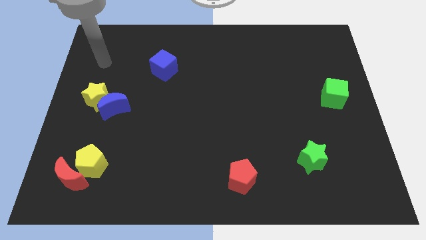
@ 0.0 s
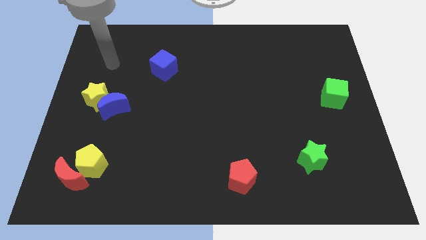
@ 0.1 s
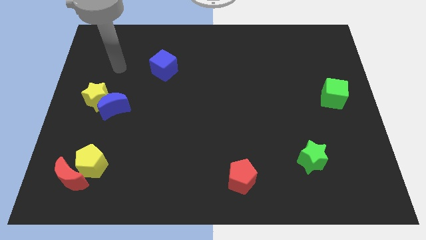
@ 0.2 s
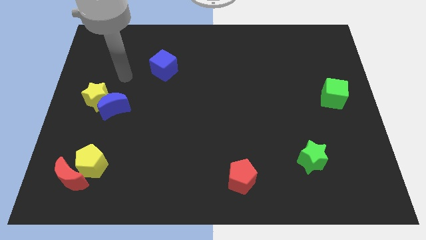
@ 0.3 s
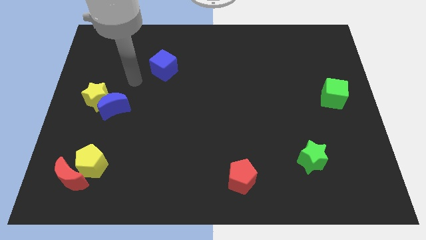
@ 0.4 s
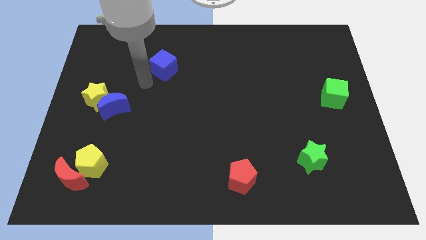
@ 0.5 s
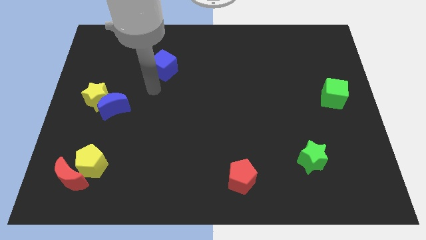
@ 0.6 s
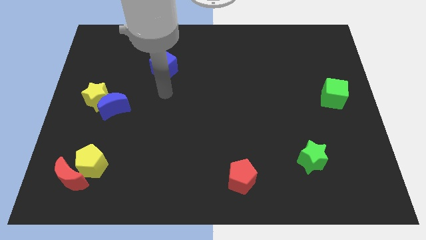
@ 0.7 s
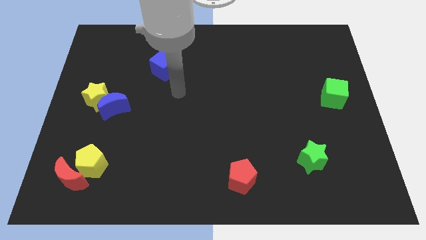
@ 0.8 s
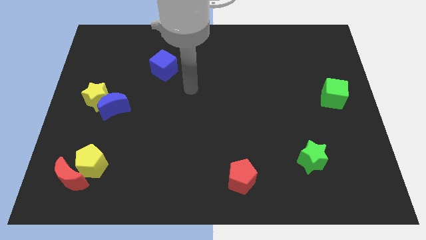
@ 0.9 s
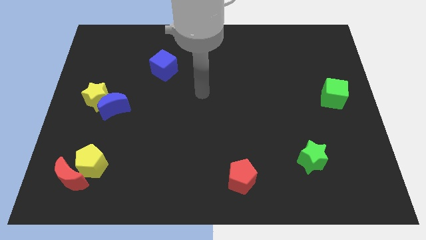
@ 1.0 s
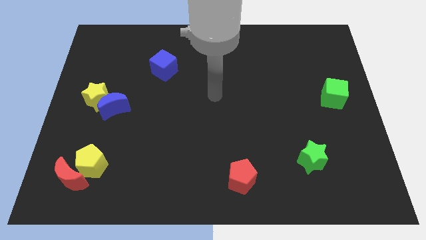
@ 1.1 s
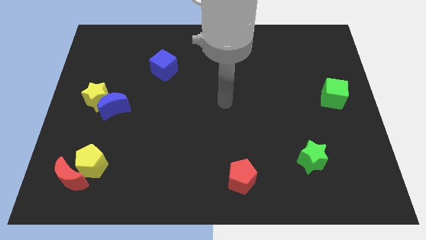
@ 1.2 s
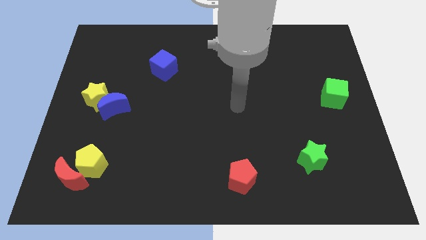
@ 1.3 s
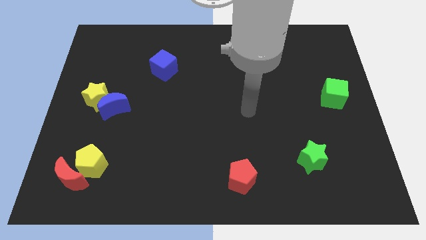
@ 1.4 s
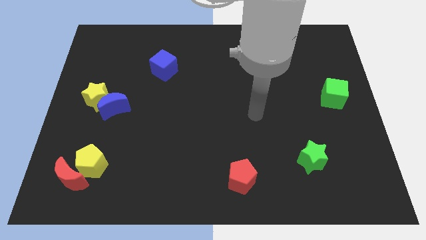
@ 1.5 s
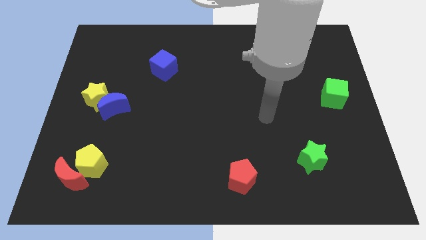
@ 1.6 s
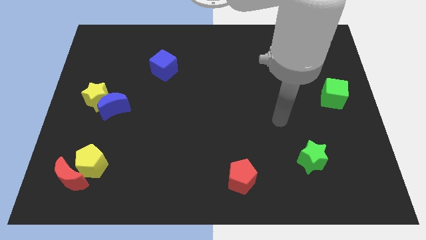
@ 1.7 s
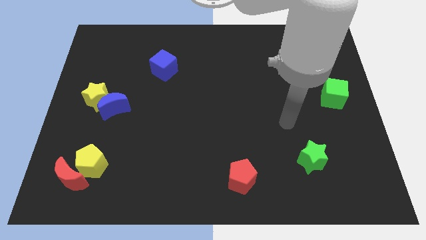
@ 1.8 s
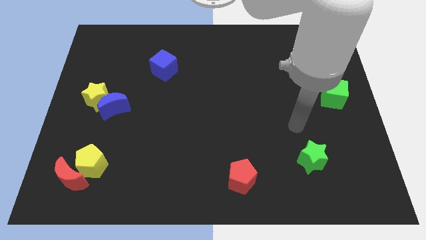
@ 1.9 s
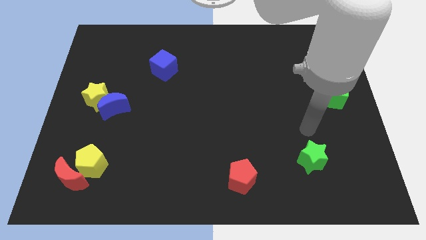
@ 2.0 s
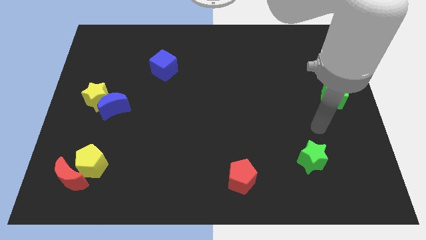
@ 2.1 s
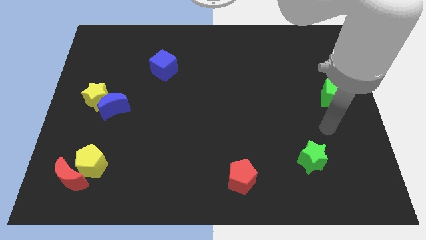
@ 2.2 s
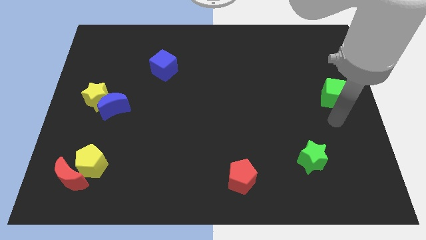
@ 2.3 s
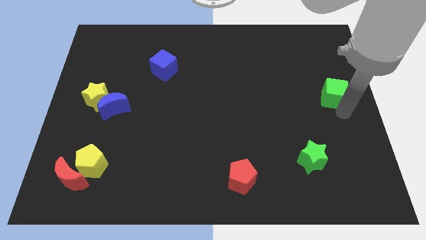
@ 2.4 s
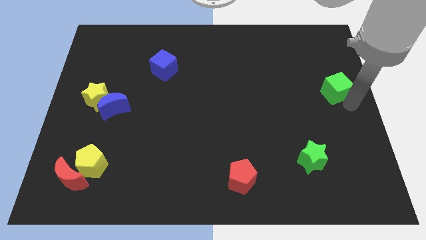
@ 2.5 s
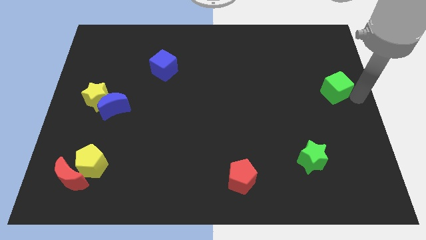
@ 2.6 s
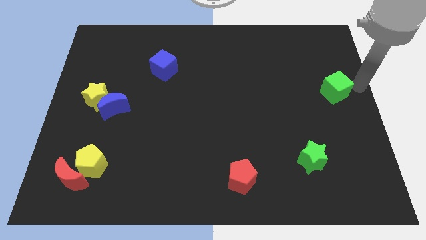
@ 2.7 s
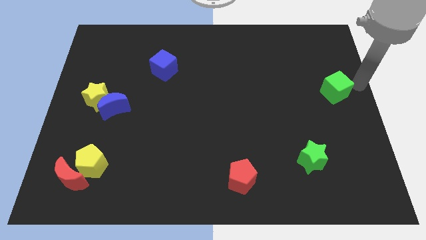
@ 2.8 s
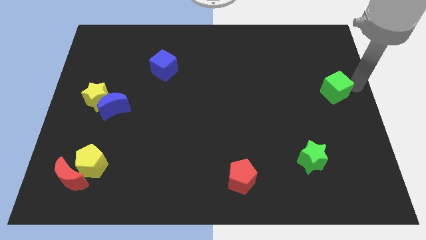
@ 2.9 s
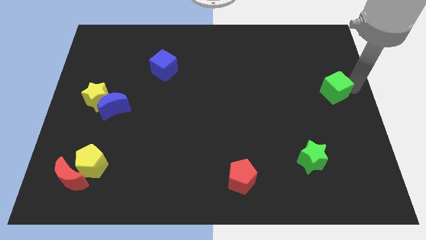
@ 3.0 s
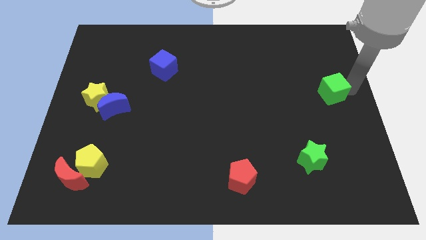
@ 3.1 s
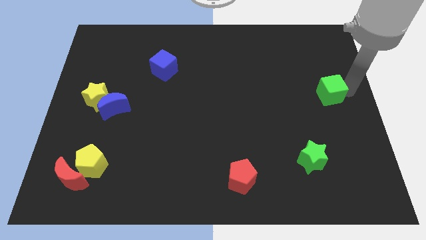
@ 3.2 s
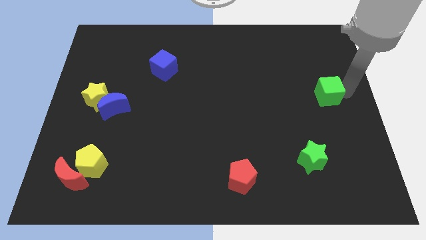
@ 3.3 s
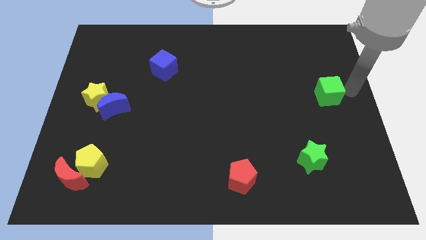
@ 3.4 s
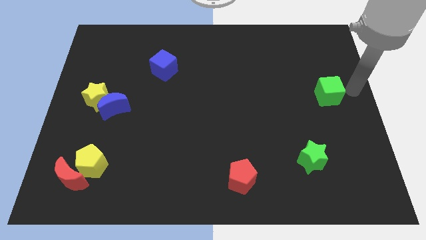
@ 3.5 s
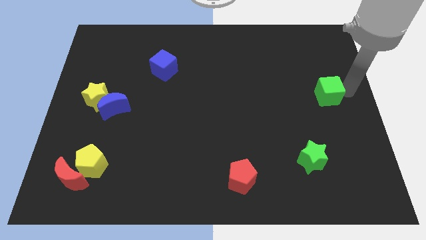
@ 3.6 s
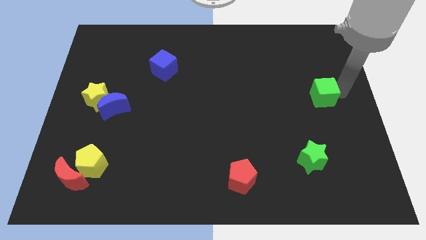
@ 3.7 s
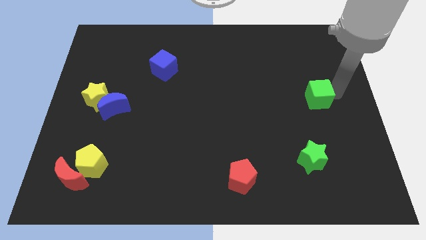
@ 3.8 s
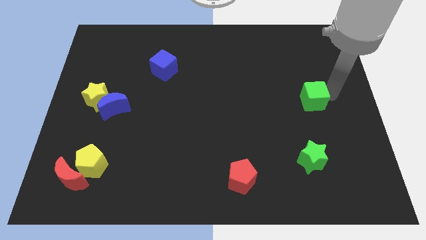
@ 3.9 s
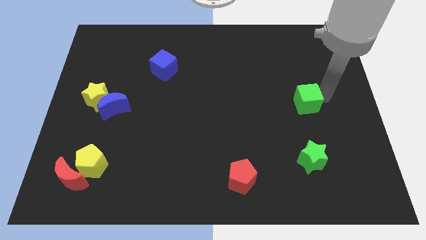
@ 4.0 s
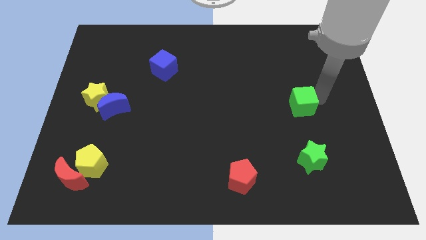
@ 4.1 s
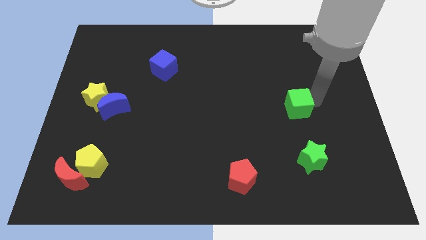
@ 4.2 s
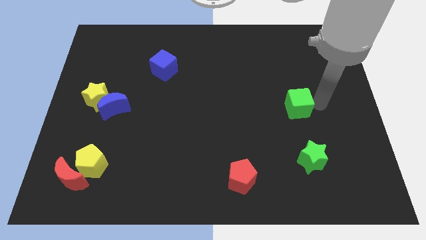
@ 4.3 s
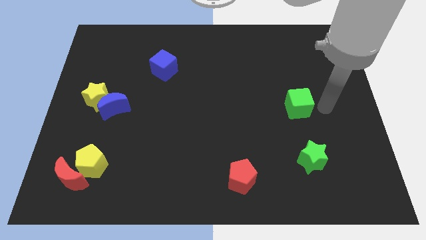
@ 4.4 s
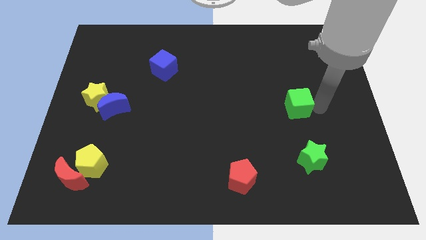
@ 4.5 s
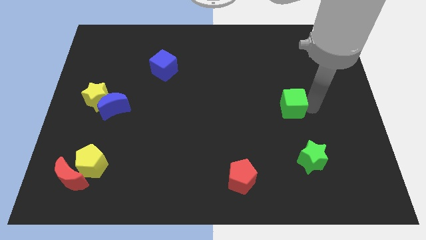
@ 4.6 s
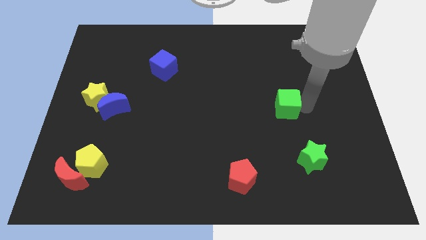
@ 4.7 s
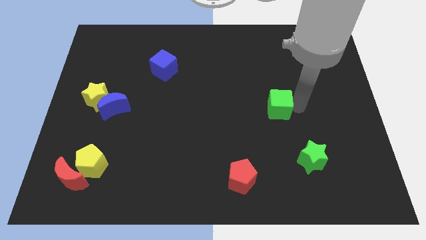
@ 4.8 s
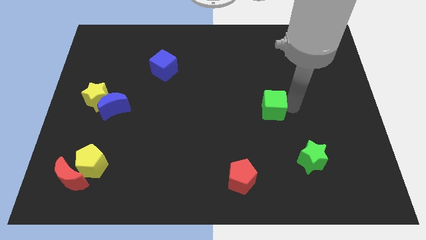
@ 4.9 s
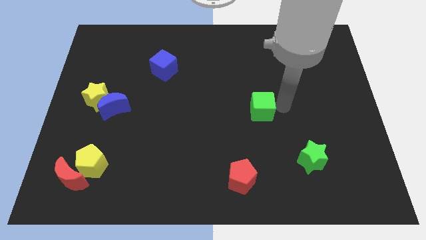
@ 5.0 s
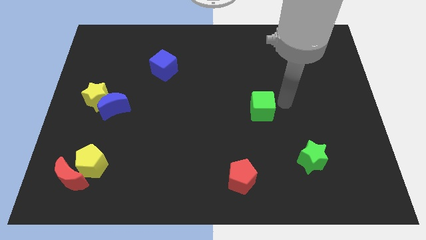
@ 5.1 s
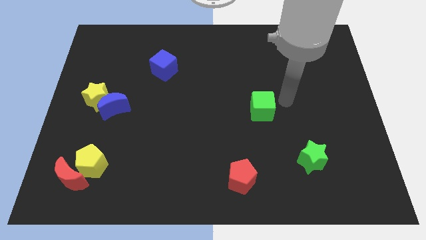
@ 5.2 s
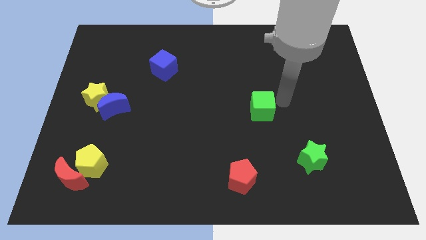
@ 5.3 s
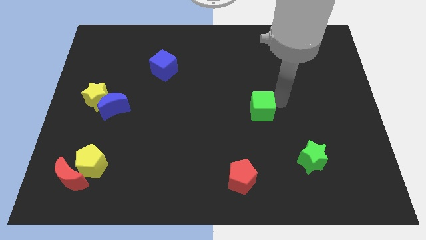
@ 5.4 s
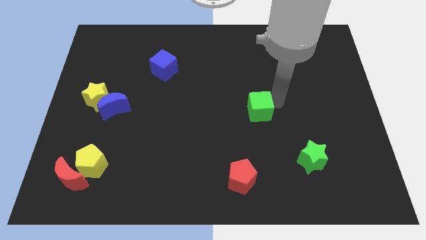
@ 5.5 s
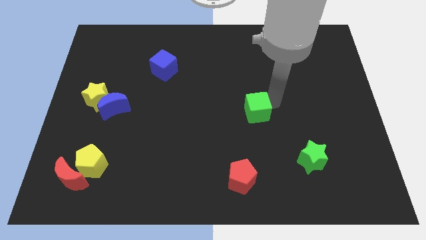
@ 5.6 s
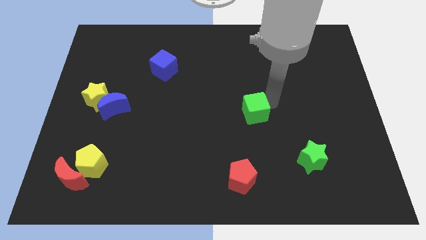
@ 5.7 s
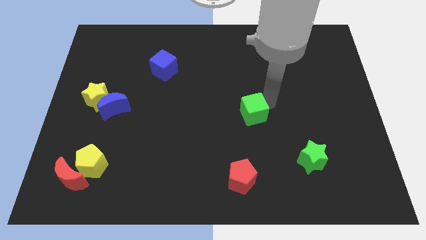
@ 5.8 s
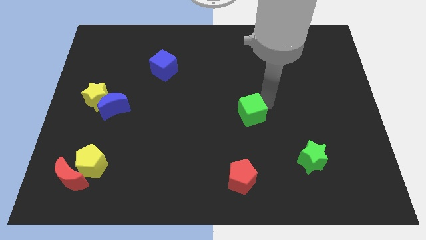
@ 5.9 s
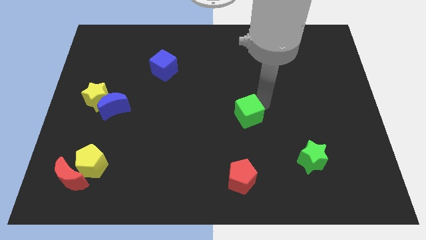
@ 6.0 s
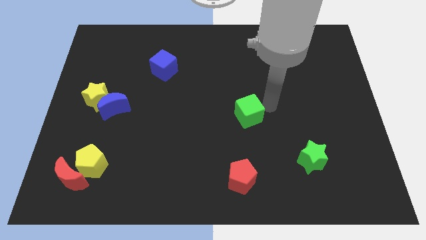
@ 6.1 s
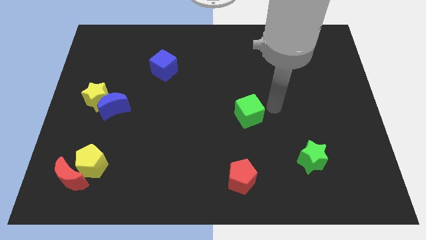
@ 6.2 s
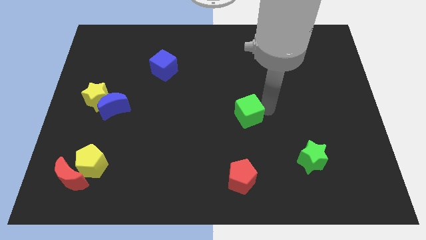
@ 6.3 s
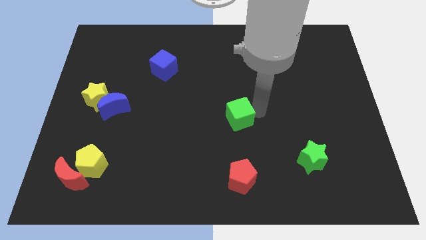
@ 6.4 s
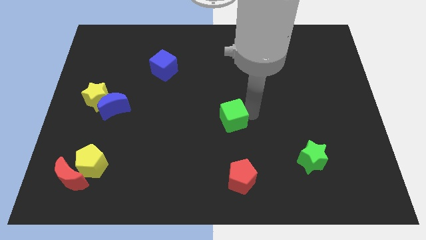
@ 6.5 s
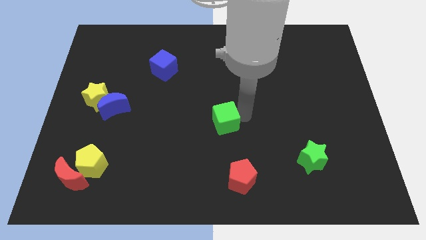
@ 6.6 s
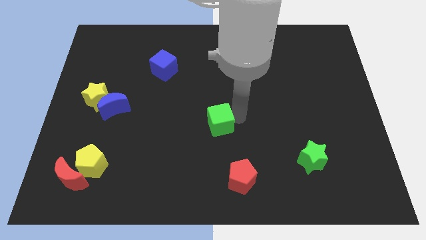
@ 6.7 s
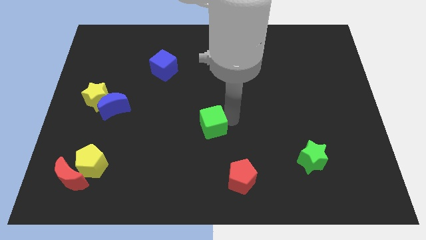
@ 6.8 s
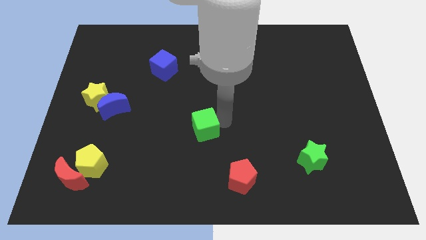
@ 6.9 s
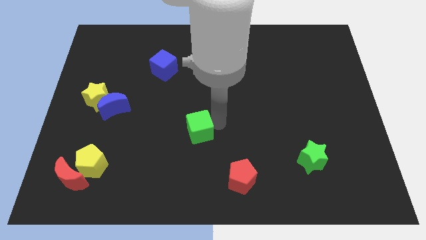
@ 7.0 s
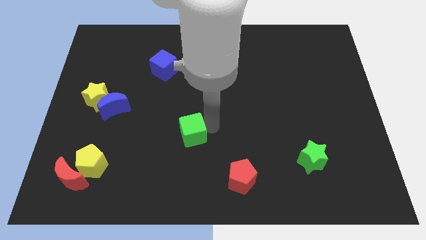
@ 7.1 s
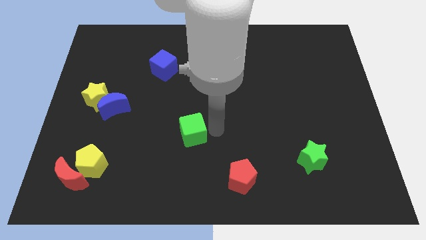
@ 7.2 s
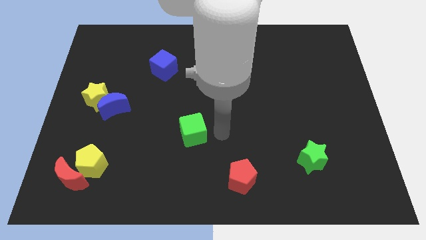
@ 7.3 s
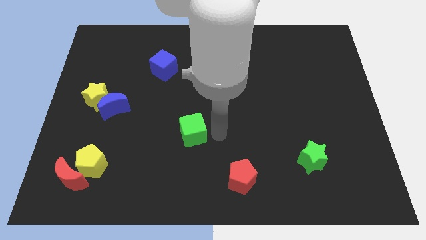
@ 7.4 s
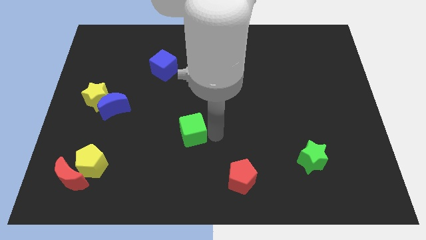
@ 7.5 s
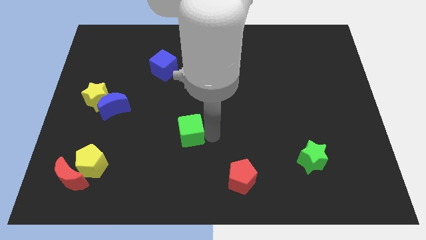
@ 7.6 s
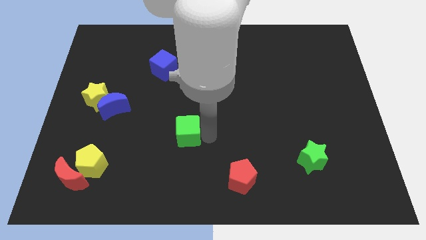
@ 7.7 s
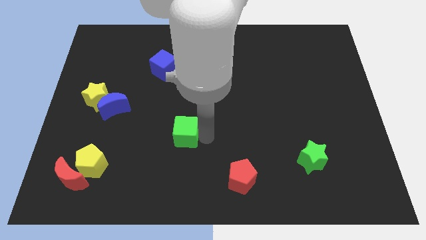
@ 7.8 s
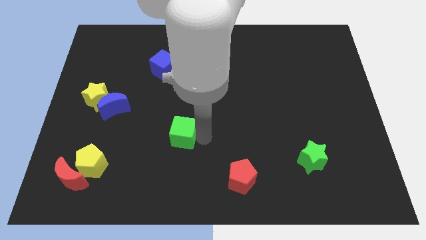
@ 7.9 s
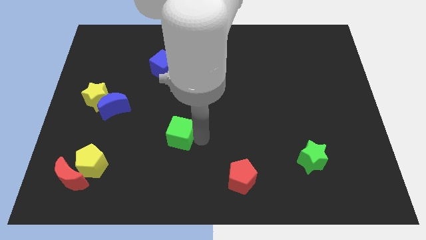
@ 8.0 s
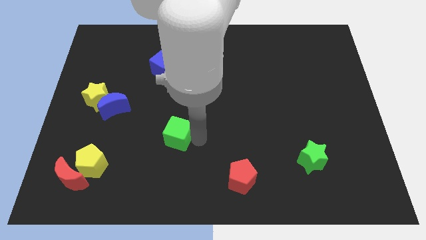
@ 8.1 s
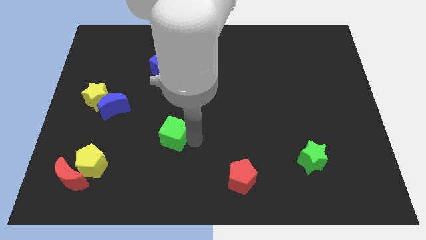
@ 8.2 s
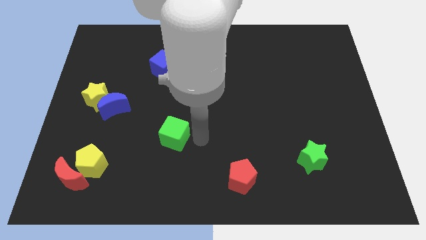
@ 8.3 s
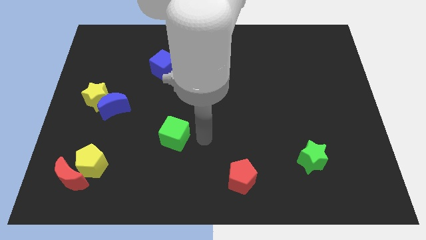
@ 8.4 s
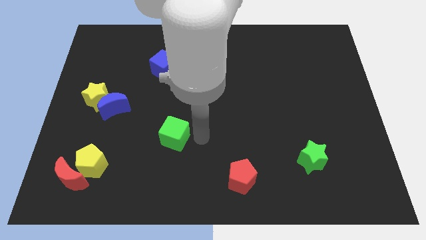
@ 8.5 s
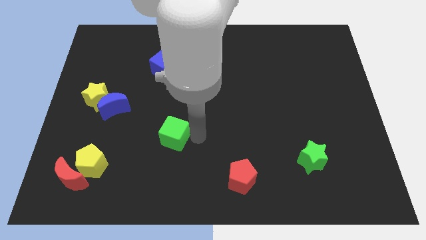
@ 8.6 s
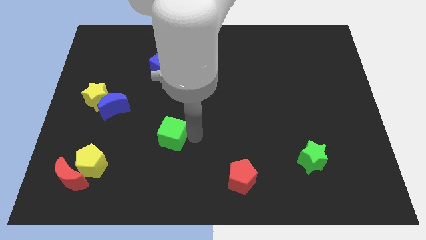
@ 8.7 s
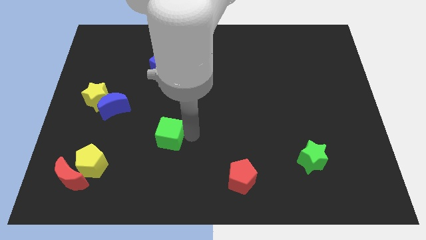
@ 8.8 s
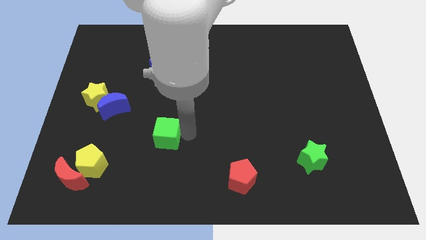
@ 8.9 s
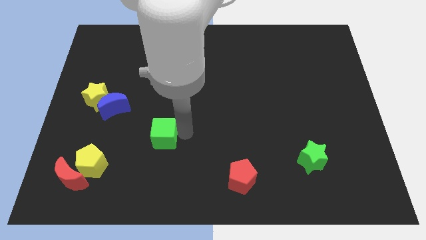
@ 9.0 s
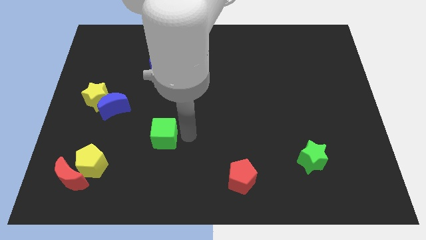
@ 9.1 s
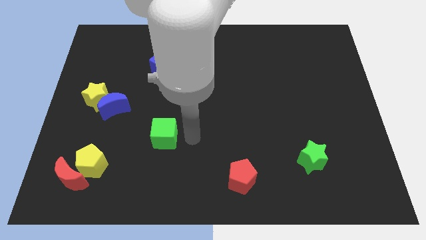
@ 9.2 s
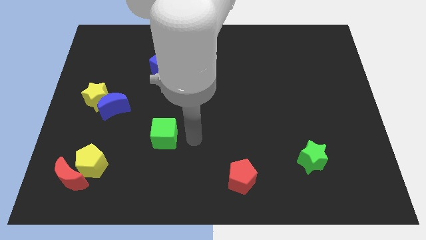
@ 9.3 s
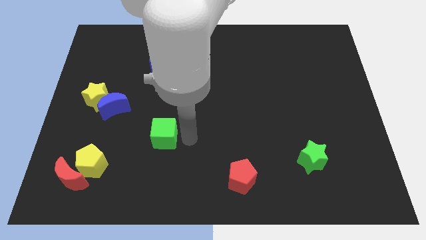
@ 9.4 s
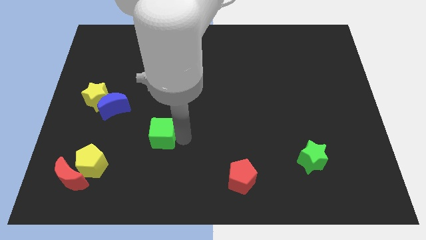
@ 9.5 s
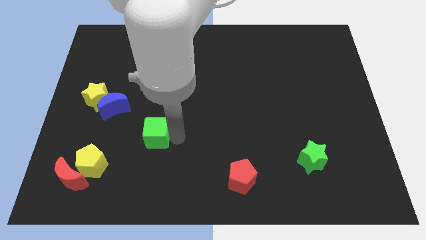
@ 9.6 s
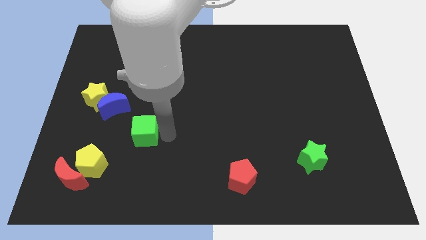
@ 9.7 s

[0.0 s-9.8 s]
push the green cube diagonally up and to the right of the yellow pentagon
